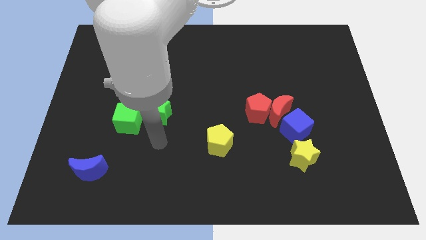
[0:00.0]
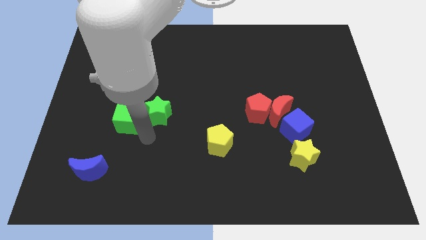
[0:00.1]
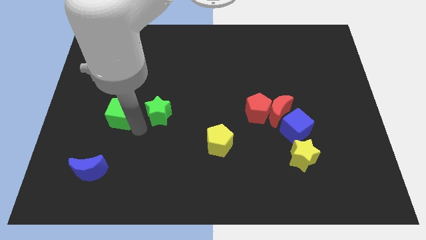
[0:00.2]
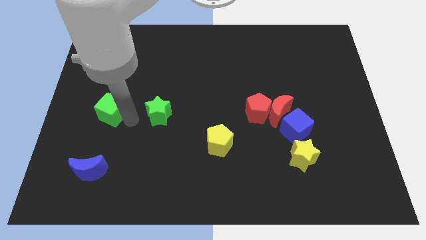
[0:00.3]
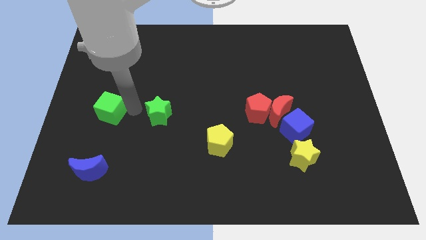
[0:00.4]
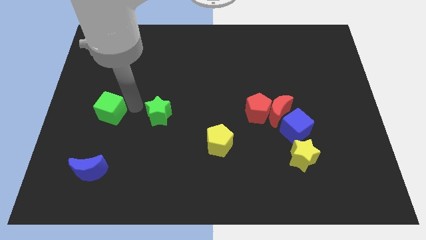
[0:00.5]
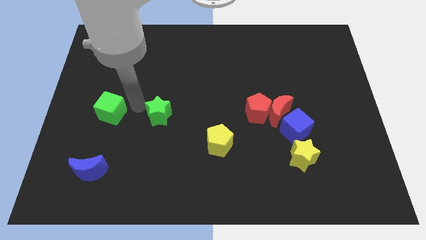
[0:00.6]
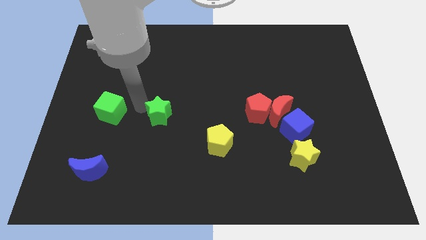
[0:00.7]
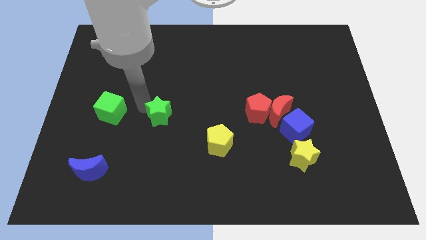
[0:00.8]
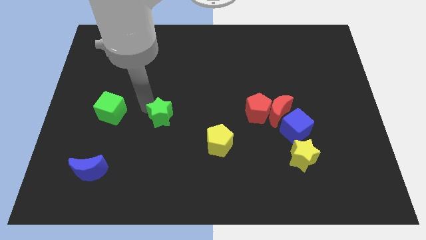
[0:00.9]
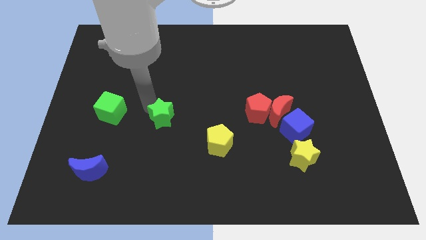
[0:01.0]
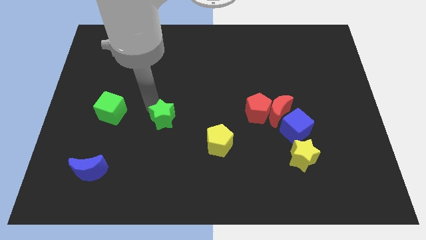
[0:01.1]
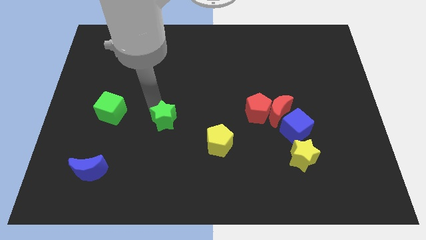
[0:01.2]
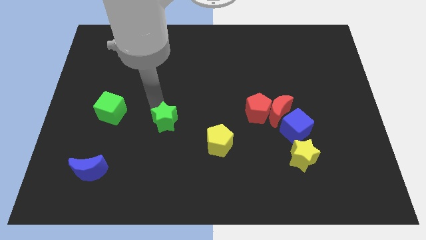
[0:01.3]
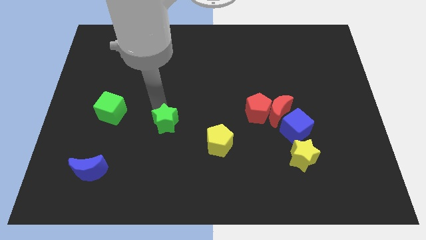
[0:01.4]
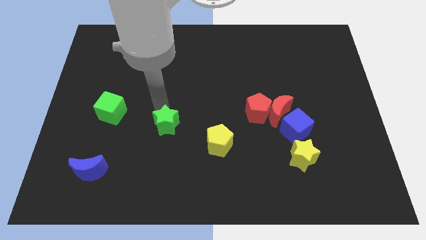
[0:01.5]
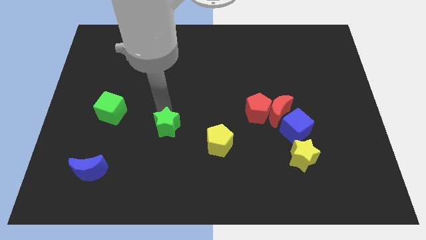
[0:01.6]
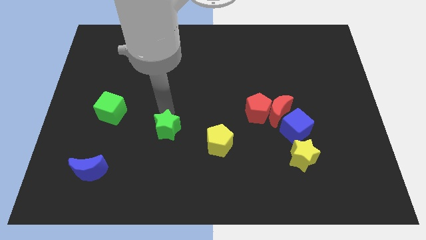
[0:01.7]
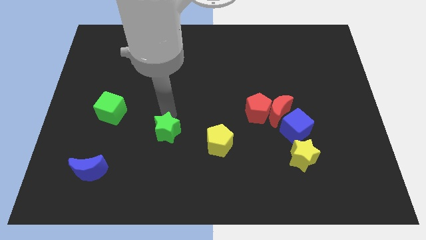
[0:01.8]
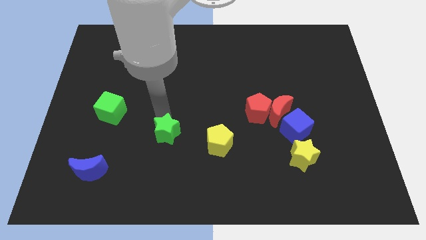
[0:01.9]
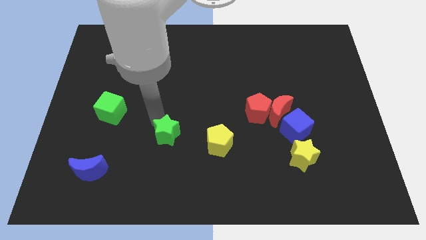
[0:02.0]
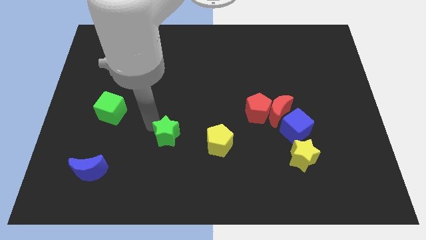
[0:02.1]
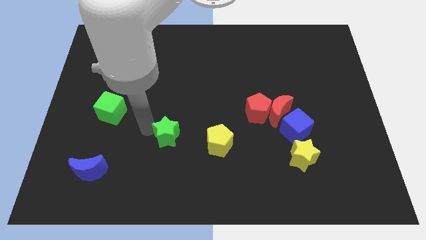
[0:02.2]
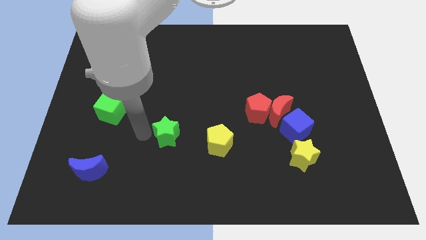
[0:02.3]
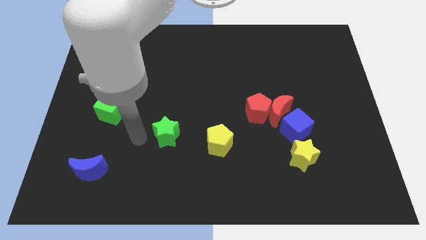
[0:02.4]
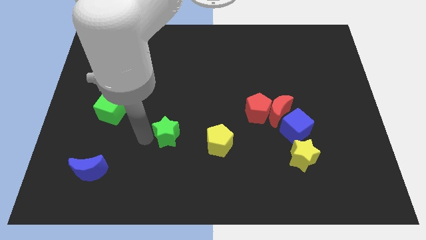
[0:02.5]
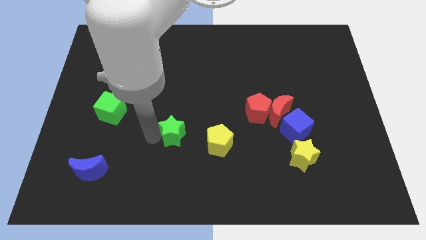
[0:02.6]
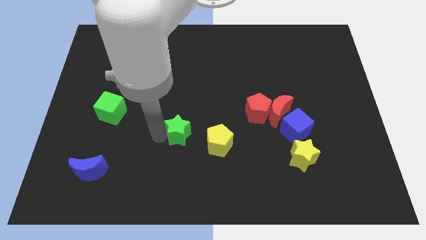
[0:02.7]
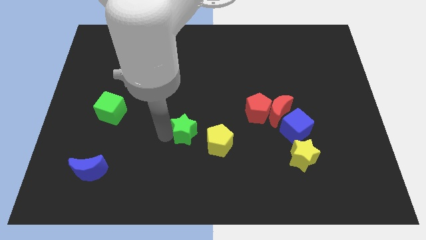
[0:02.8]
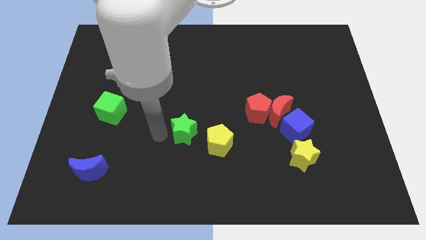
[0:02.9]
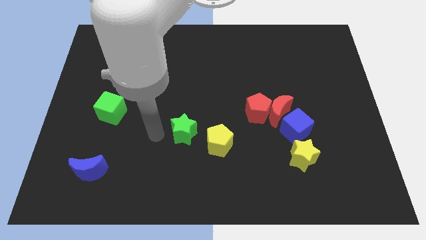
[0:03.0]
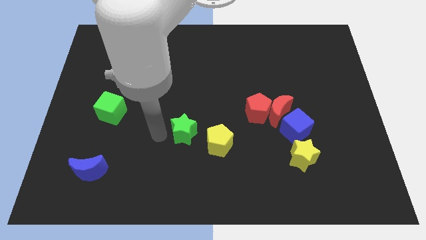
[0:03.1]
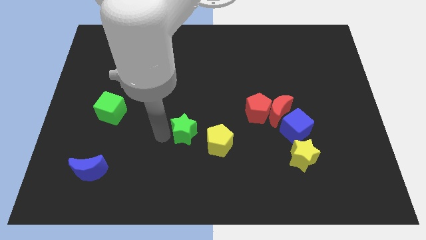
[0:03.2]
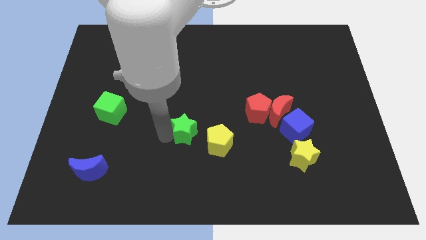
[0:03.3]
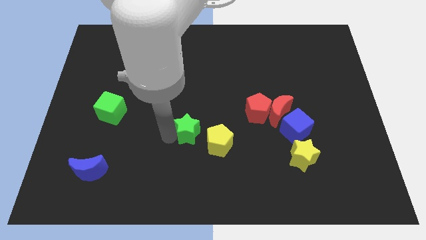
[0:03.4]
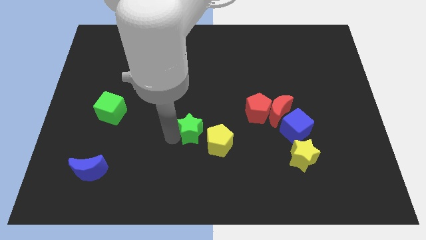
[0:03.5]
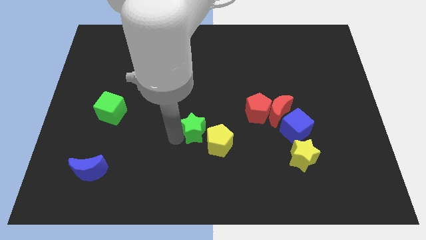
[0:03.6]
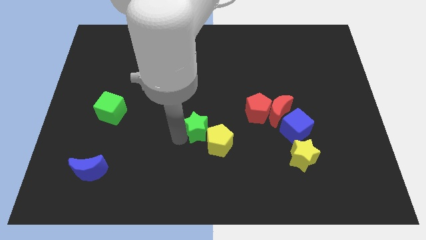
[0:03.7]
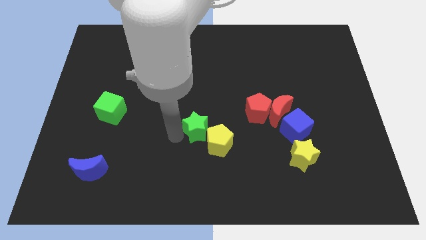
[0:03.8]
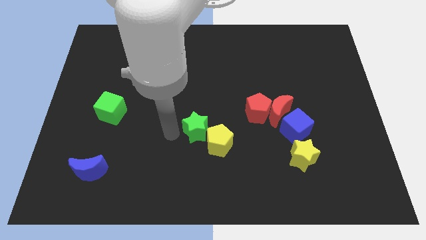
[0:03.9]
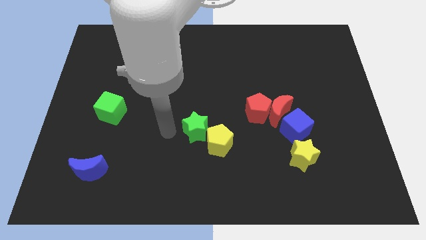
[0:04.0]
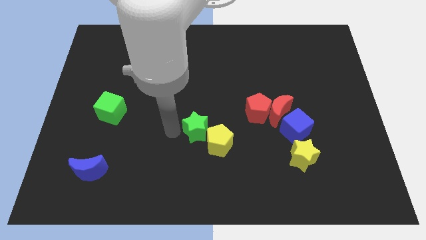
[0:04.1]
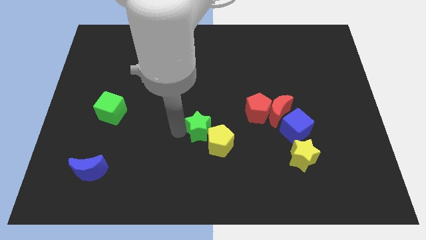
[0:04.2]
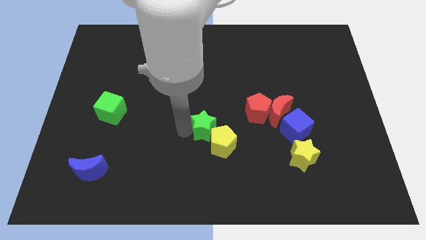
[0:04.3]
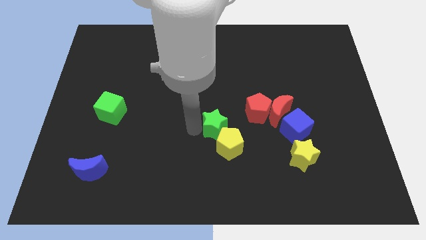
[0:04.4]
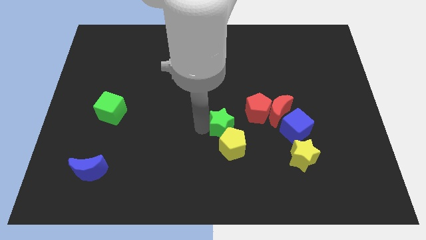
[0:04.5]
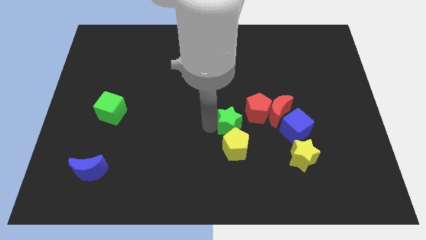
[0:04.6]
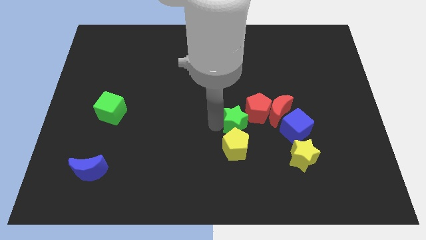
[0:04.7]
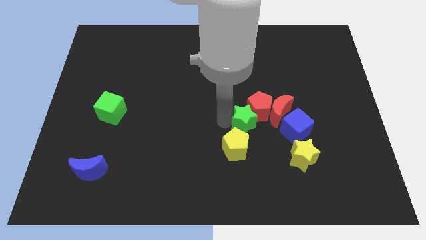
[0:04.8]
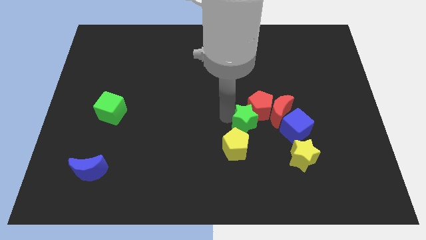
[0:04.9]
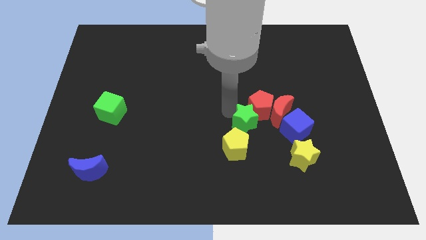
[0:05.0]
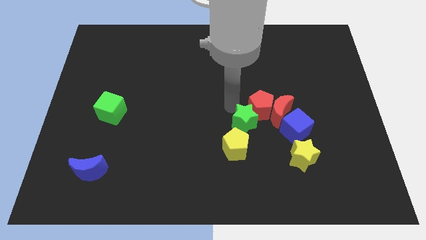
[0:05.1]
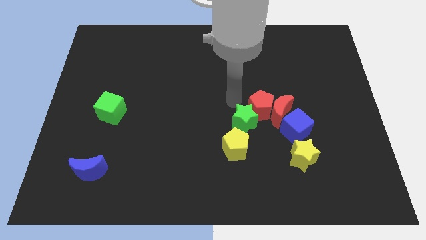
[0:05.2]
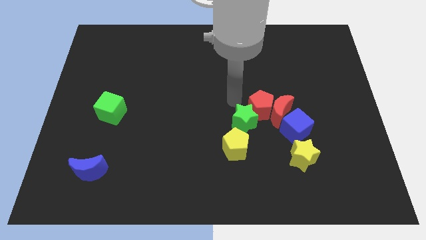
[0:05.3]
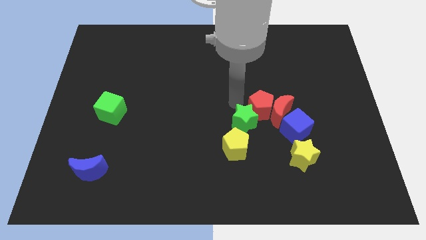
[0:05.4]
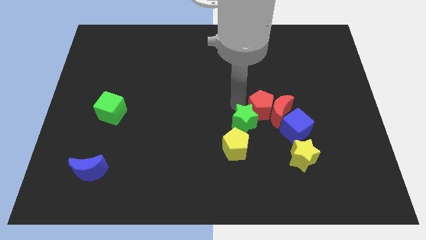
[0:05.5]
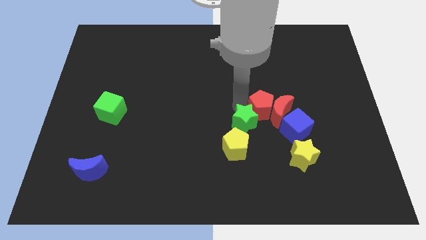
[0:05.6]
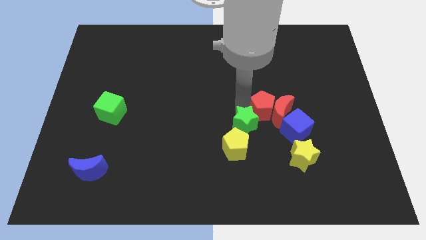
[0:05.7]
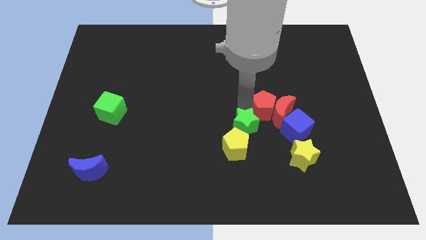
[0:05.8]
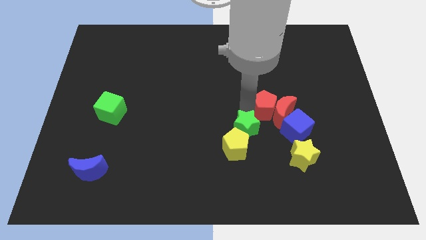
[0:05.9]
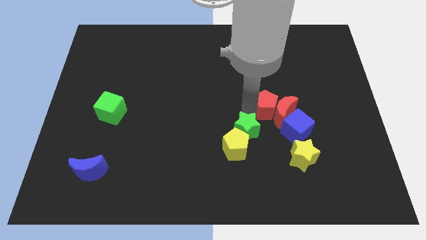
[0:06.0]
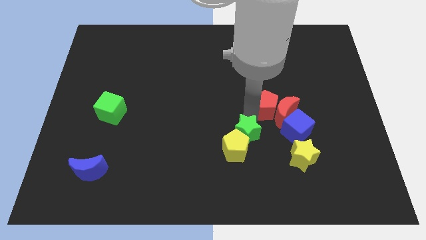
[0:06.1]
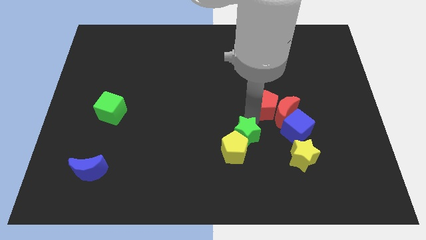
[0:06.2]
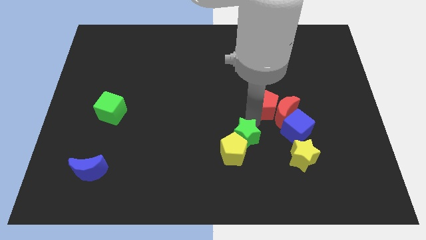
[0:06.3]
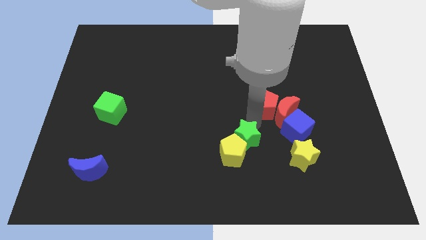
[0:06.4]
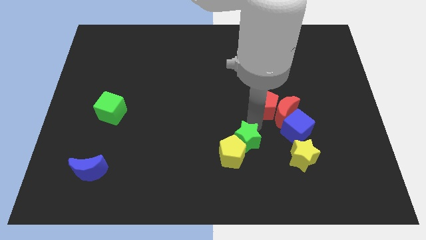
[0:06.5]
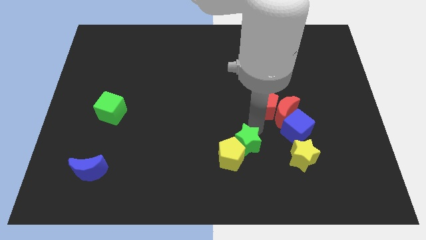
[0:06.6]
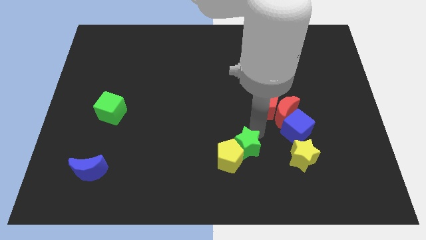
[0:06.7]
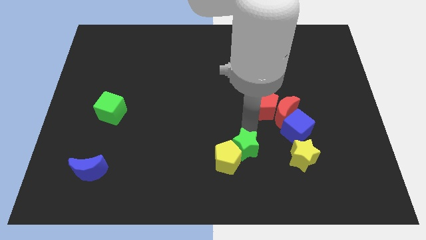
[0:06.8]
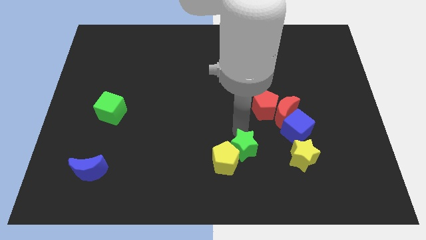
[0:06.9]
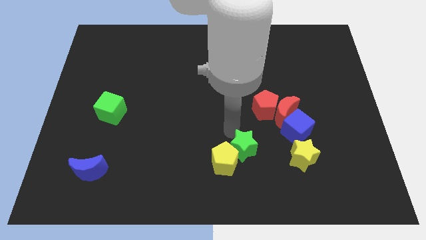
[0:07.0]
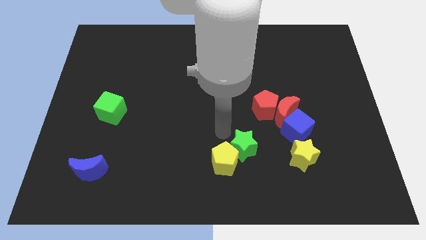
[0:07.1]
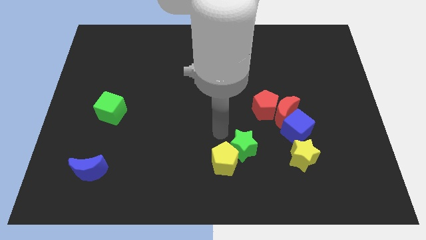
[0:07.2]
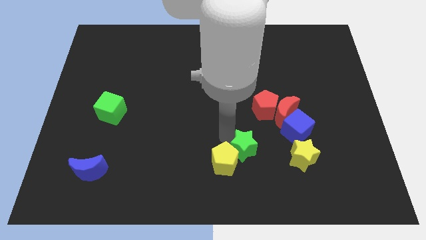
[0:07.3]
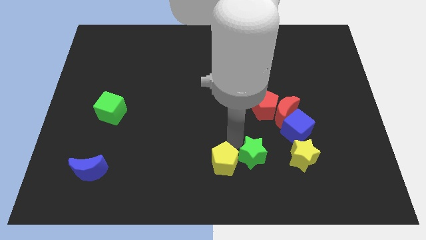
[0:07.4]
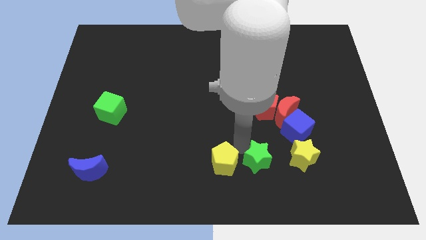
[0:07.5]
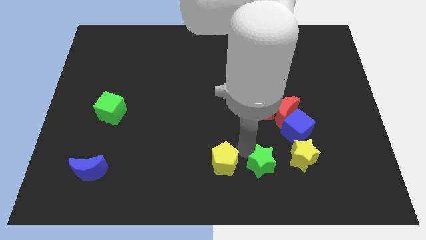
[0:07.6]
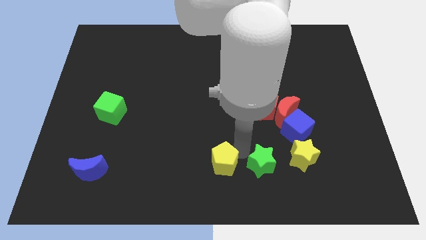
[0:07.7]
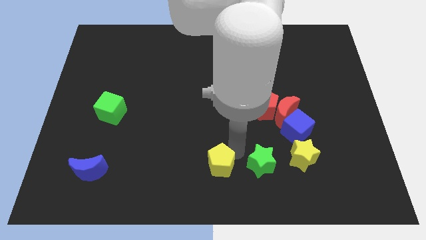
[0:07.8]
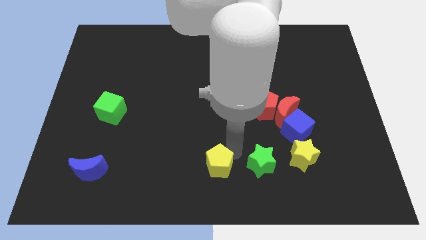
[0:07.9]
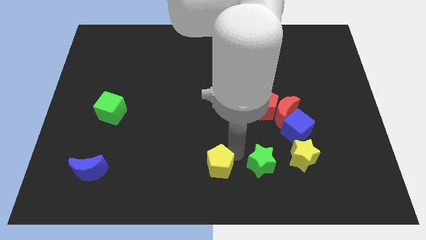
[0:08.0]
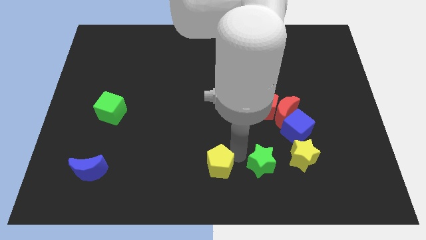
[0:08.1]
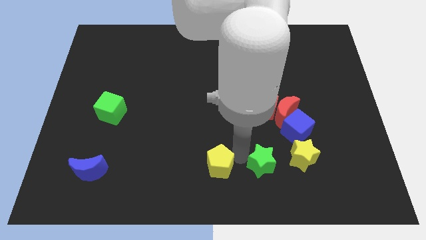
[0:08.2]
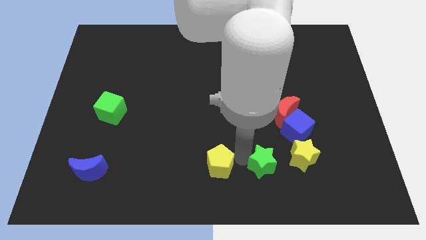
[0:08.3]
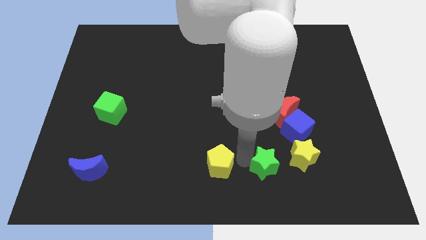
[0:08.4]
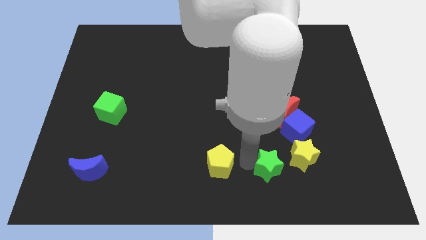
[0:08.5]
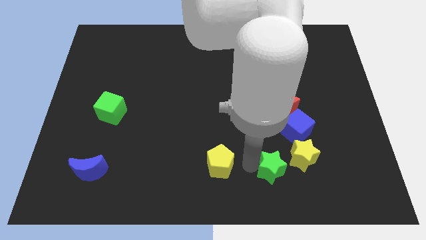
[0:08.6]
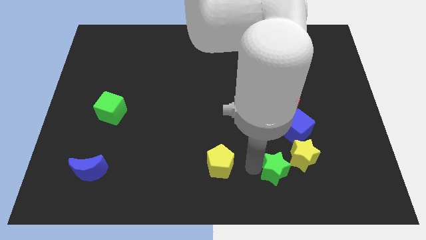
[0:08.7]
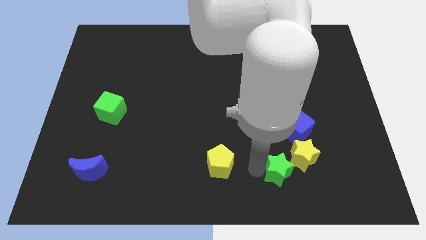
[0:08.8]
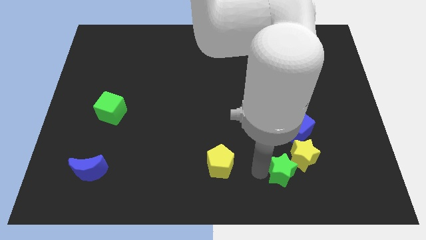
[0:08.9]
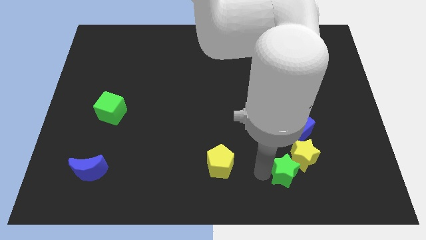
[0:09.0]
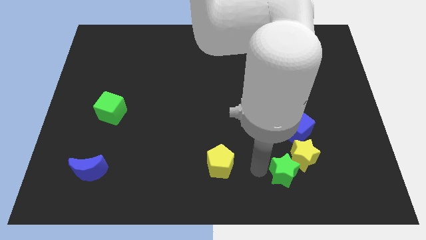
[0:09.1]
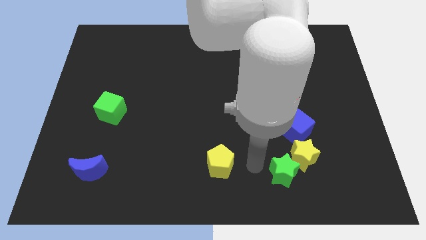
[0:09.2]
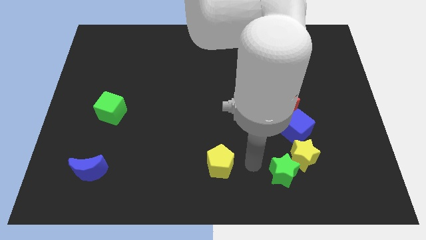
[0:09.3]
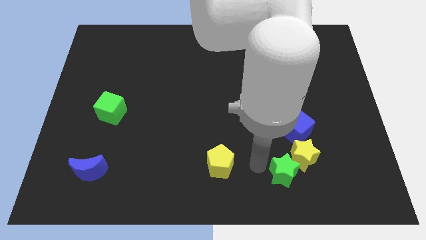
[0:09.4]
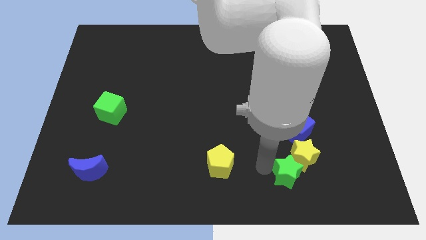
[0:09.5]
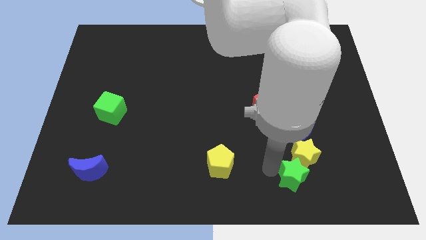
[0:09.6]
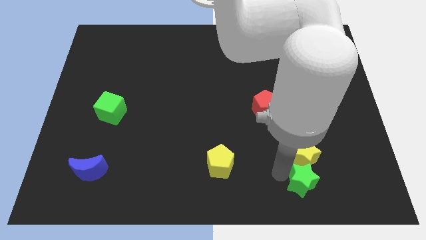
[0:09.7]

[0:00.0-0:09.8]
slide the green star to the bottom right of the yellow star
